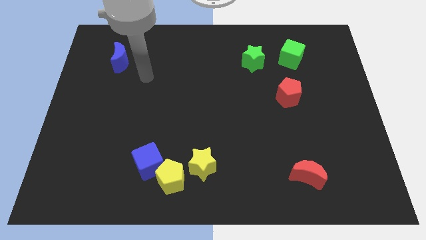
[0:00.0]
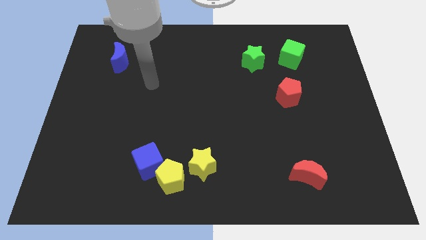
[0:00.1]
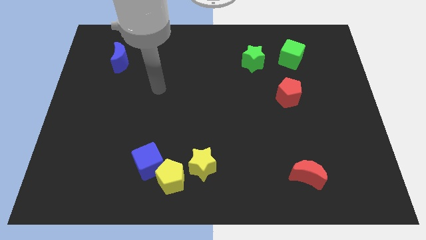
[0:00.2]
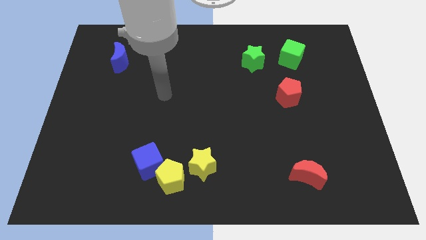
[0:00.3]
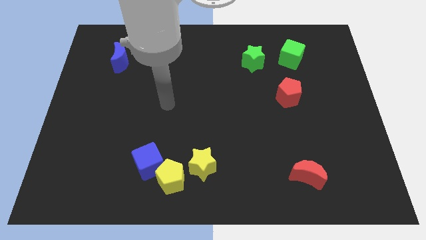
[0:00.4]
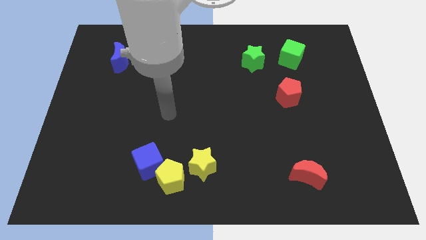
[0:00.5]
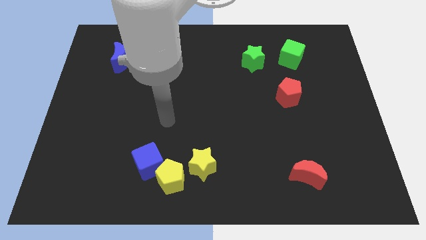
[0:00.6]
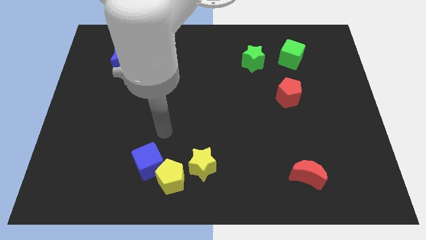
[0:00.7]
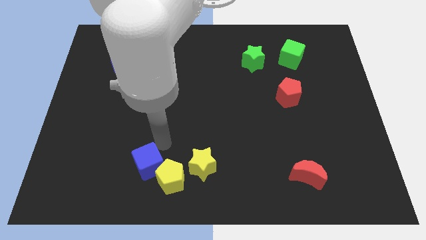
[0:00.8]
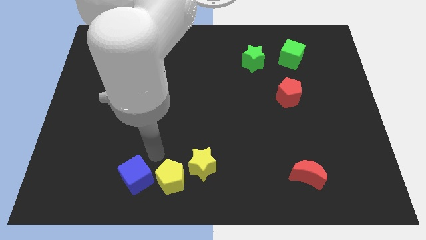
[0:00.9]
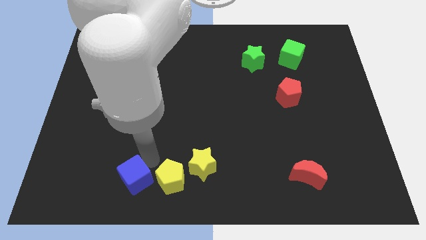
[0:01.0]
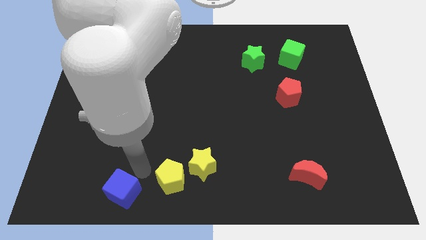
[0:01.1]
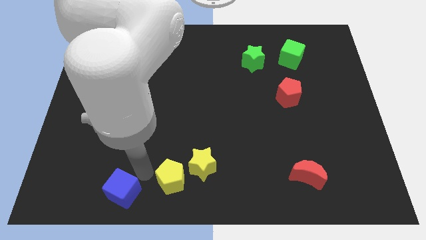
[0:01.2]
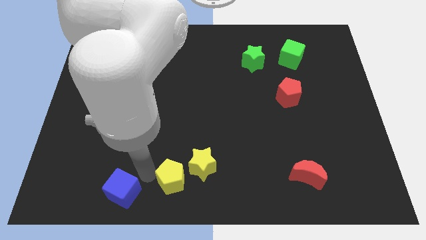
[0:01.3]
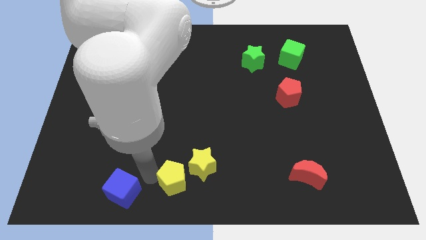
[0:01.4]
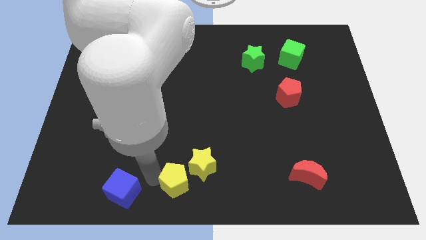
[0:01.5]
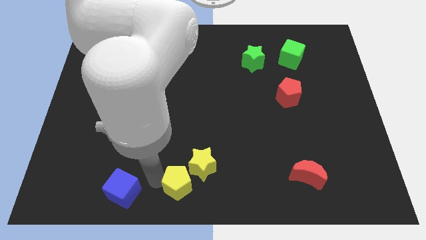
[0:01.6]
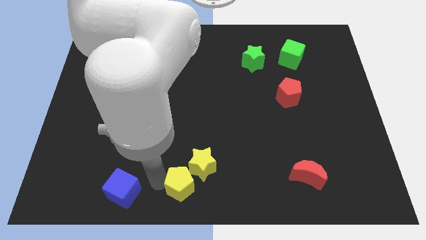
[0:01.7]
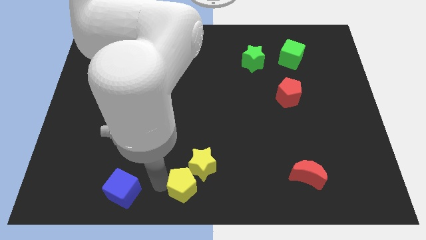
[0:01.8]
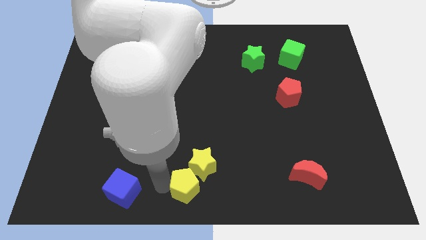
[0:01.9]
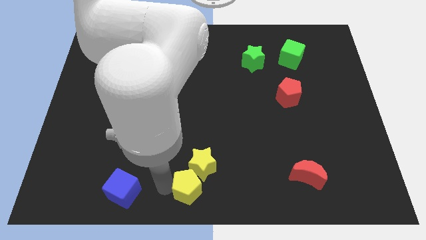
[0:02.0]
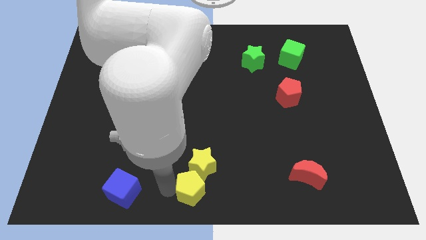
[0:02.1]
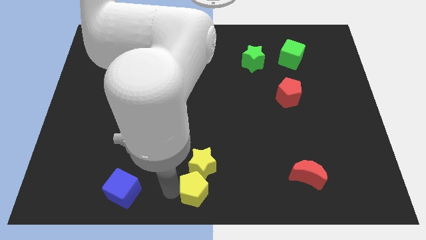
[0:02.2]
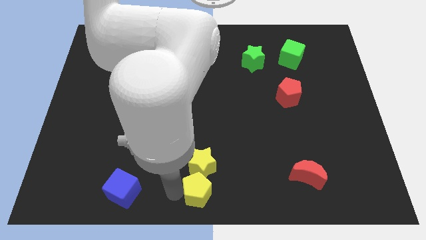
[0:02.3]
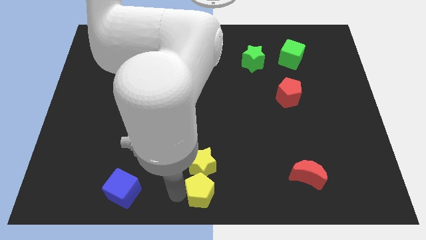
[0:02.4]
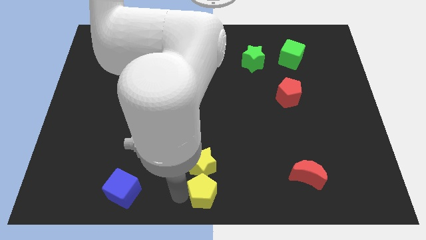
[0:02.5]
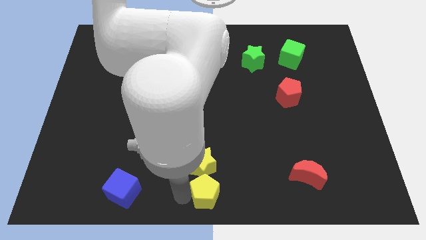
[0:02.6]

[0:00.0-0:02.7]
push the yellow pentagon slightly right

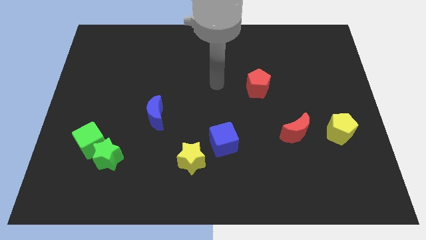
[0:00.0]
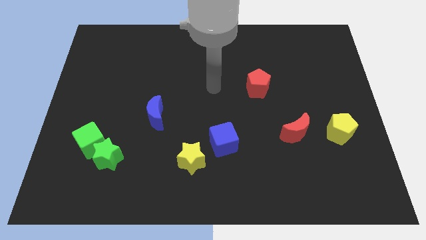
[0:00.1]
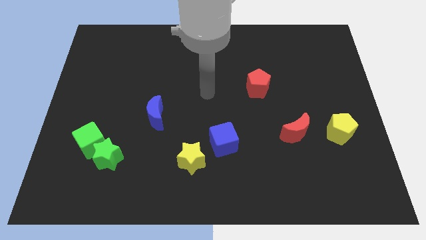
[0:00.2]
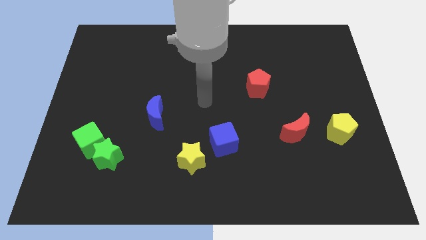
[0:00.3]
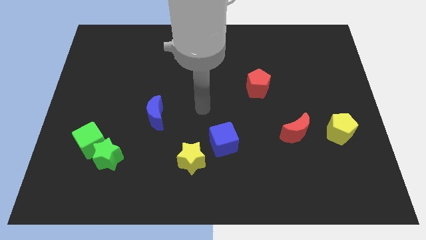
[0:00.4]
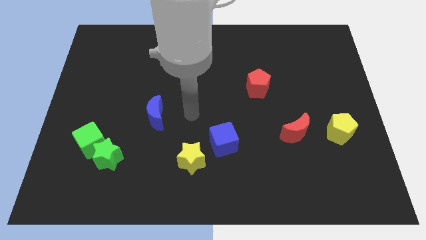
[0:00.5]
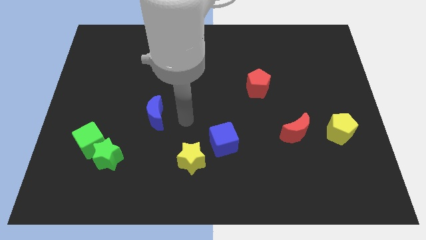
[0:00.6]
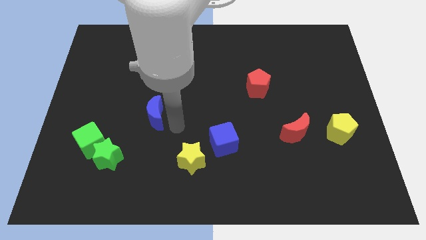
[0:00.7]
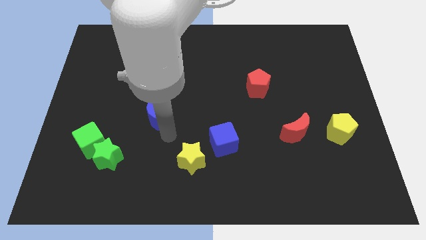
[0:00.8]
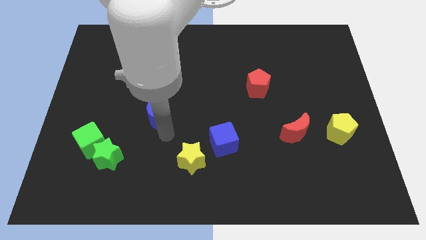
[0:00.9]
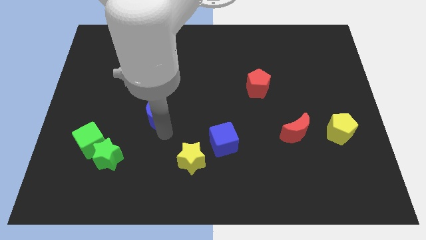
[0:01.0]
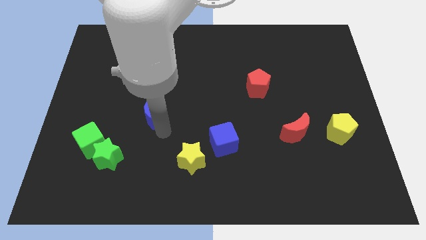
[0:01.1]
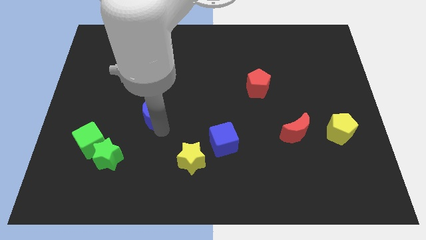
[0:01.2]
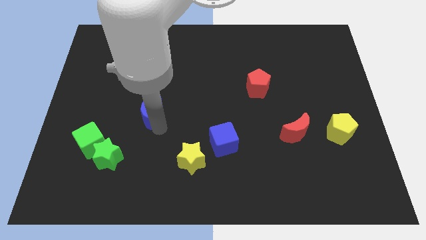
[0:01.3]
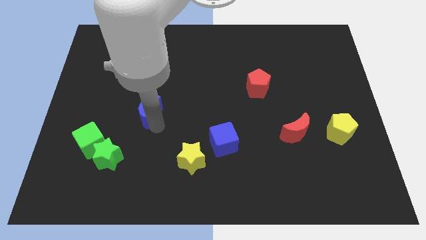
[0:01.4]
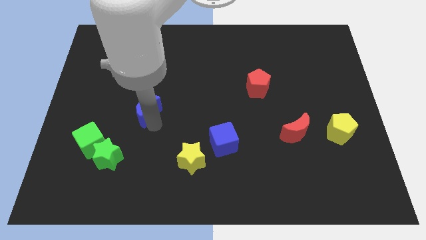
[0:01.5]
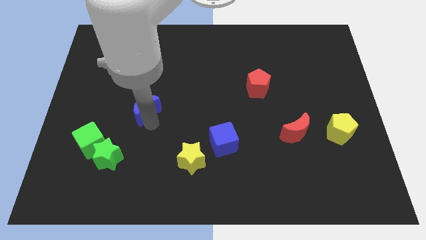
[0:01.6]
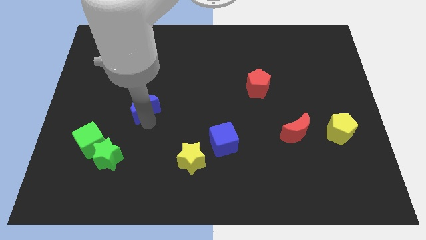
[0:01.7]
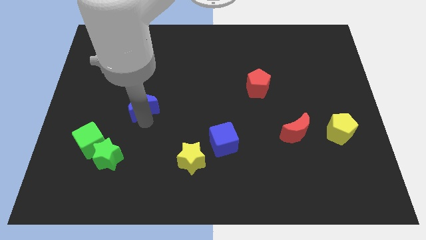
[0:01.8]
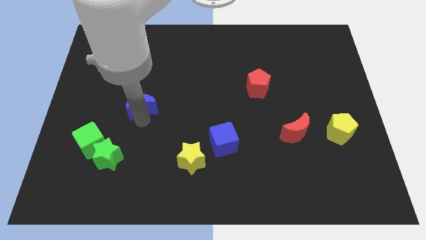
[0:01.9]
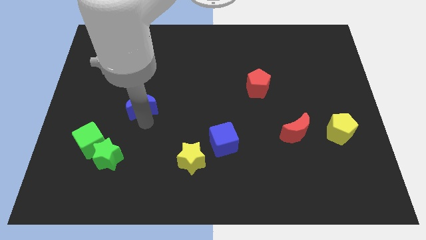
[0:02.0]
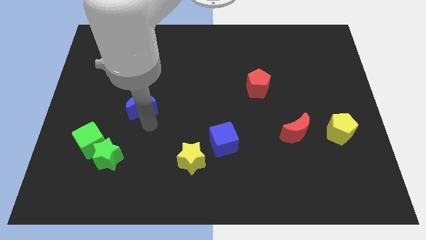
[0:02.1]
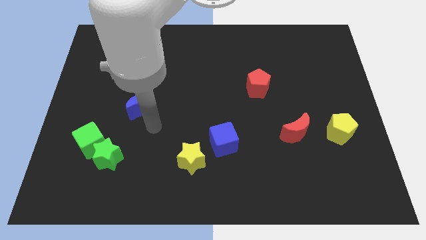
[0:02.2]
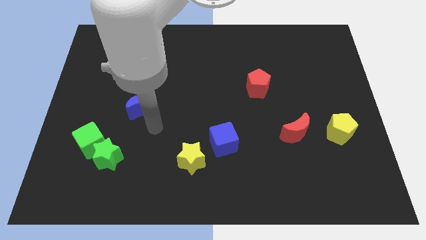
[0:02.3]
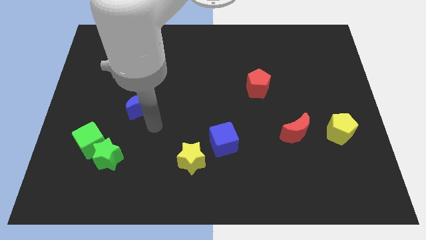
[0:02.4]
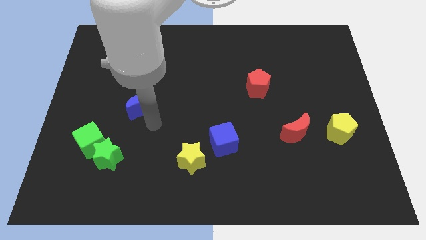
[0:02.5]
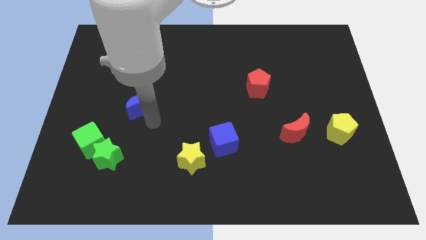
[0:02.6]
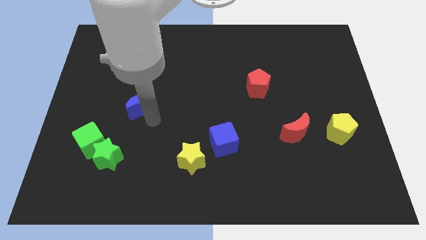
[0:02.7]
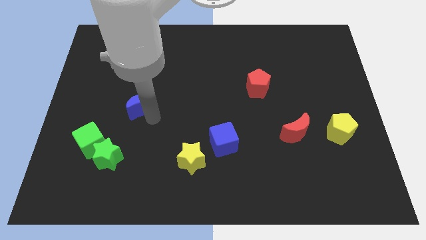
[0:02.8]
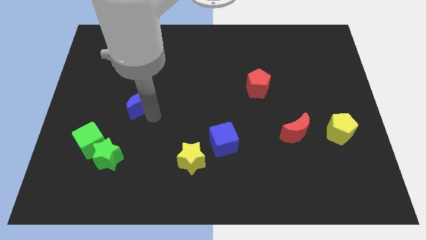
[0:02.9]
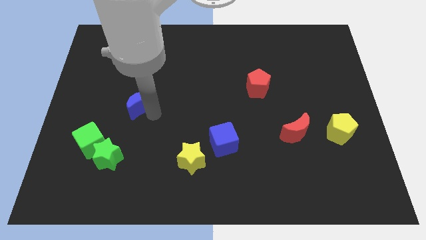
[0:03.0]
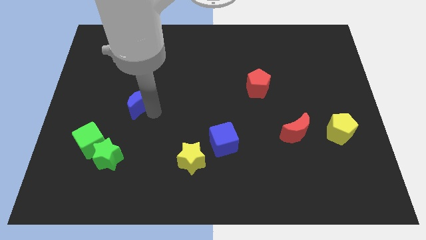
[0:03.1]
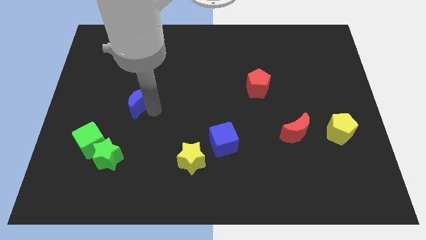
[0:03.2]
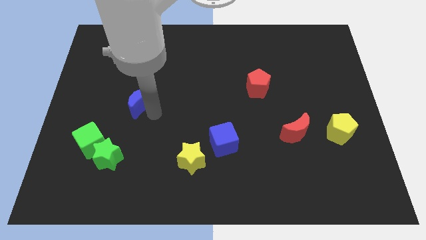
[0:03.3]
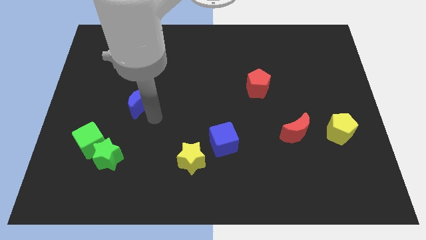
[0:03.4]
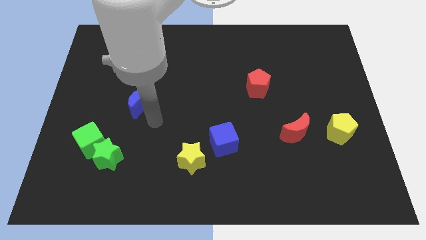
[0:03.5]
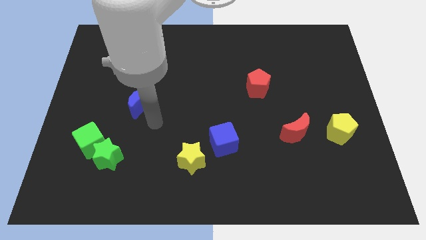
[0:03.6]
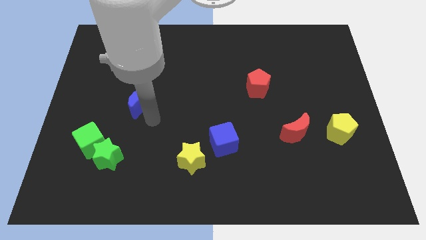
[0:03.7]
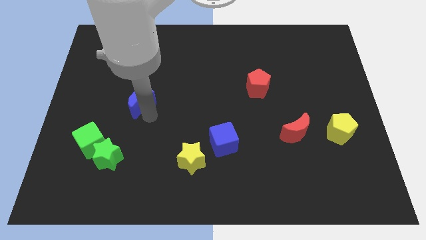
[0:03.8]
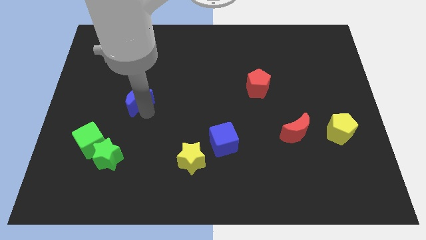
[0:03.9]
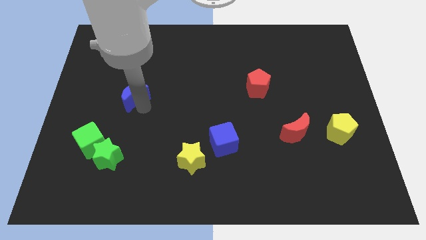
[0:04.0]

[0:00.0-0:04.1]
move the blue moon a bit up and left diagonally

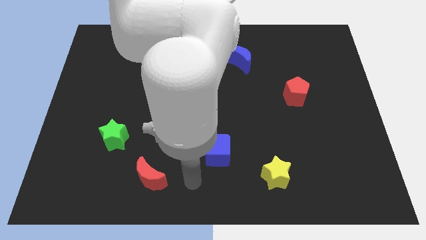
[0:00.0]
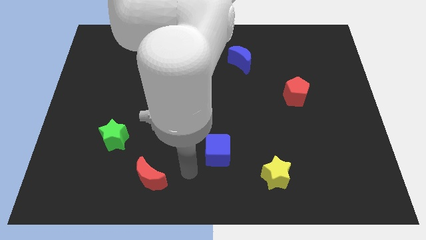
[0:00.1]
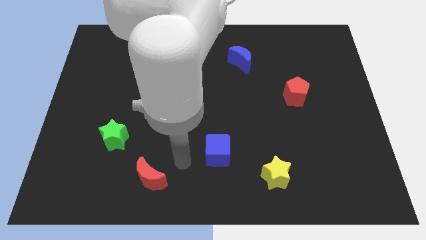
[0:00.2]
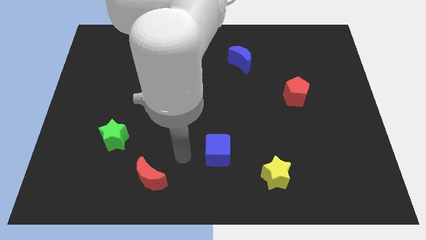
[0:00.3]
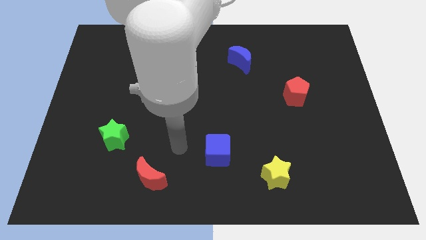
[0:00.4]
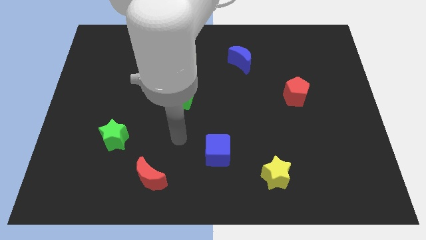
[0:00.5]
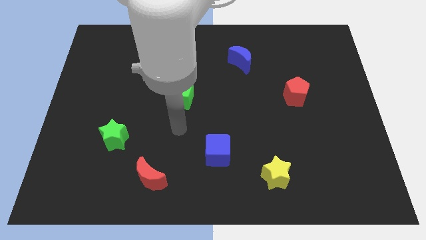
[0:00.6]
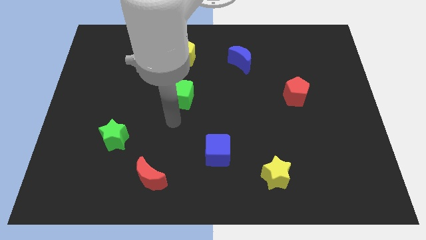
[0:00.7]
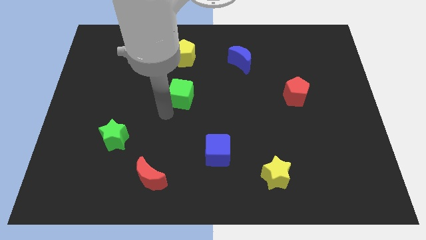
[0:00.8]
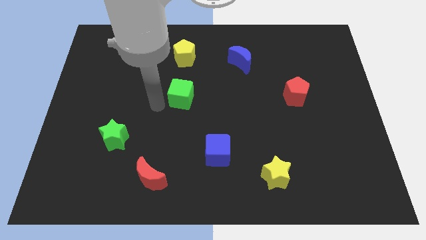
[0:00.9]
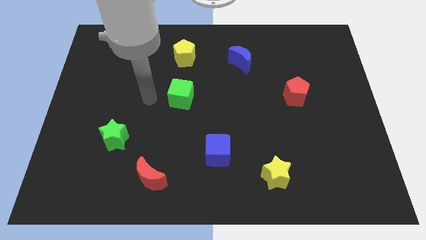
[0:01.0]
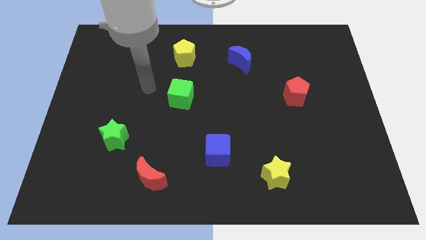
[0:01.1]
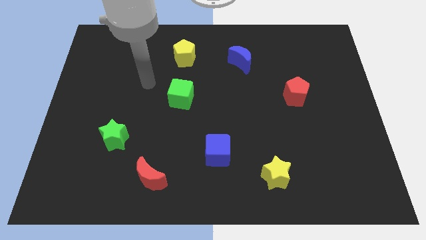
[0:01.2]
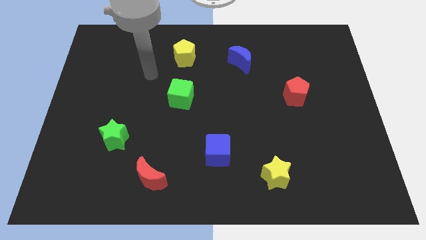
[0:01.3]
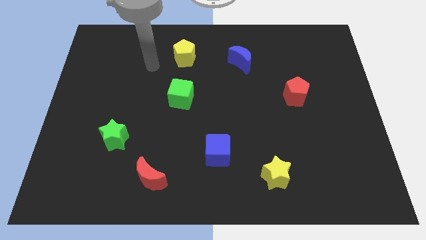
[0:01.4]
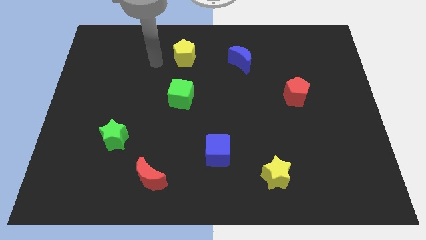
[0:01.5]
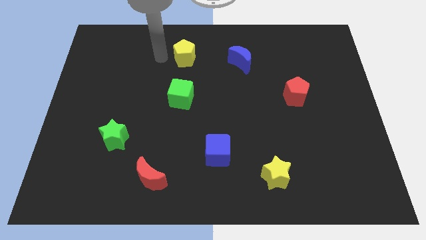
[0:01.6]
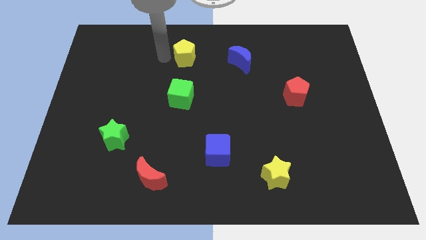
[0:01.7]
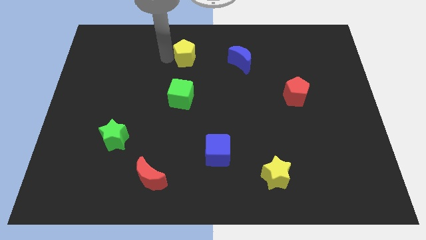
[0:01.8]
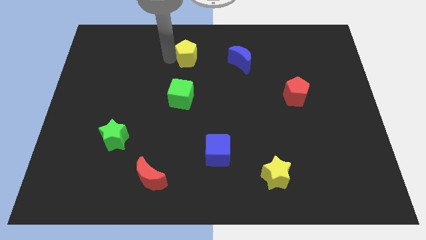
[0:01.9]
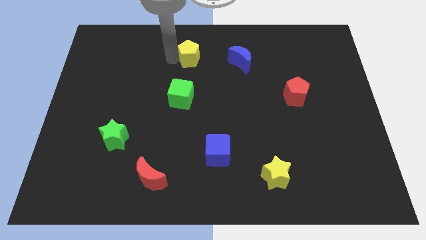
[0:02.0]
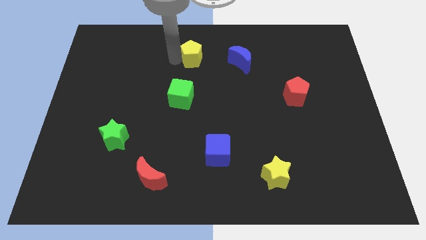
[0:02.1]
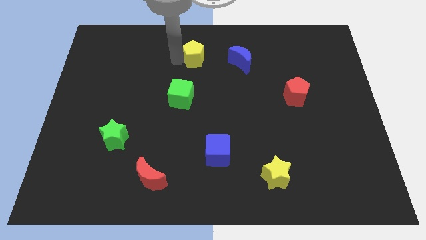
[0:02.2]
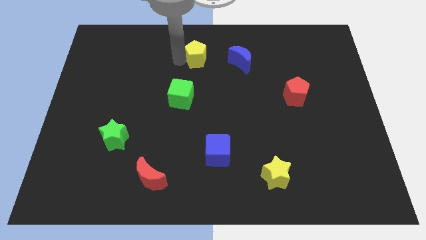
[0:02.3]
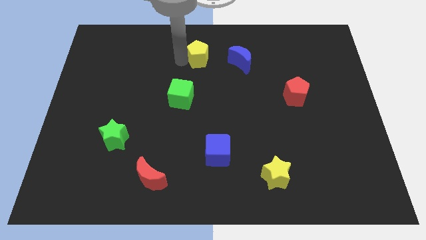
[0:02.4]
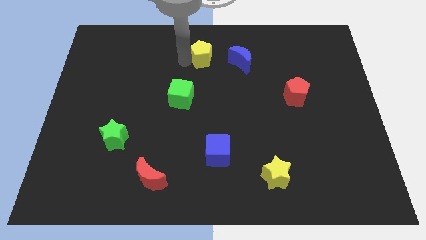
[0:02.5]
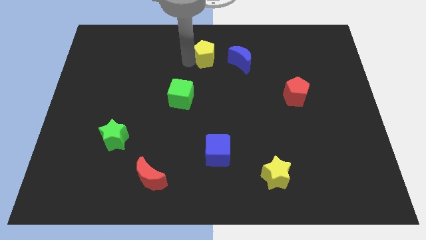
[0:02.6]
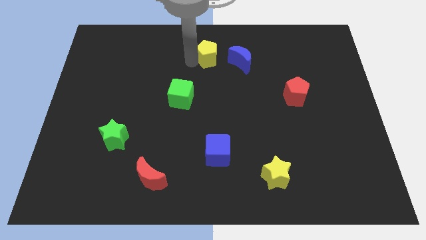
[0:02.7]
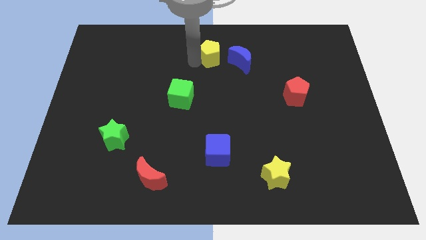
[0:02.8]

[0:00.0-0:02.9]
push the yellow pentagon right somewhat
